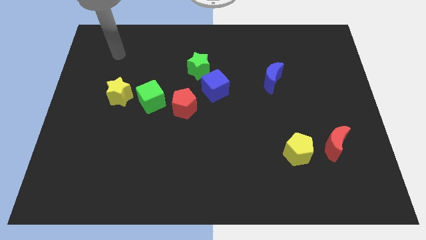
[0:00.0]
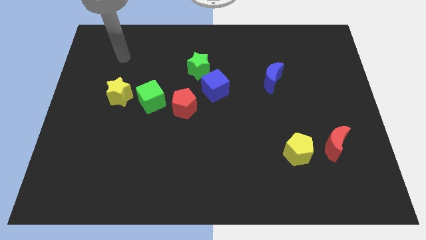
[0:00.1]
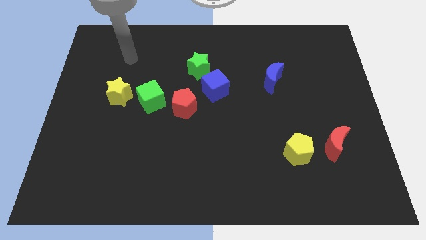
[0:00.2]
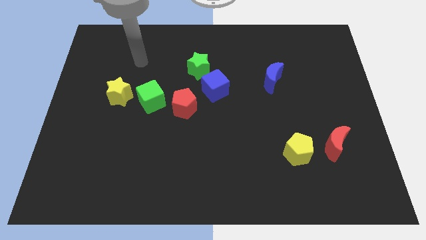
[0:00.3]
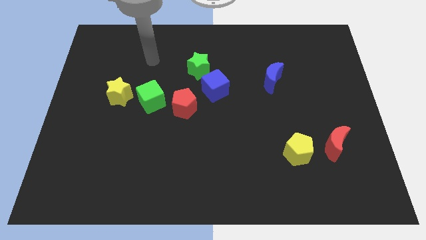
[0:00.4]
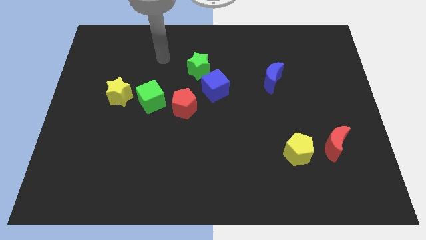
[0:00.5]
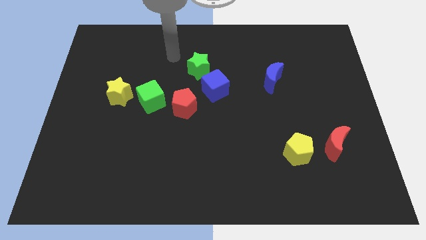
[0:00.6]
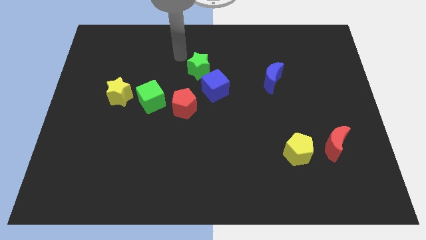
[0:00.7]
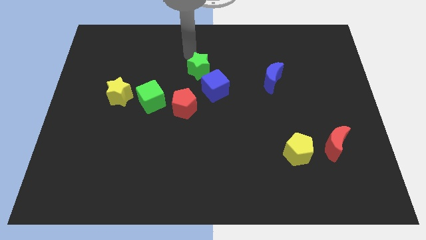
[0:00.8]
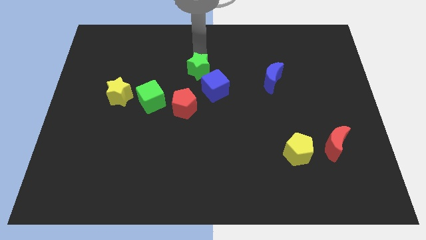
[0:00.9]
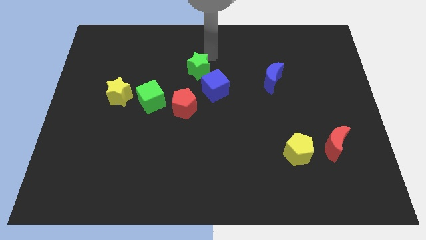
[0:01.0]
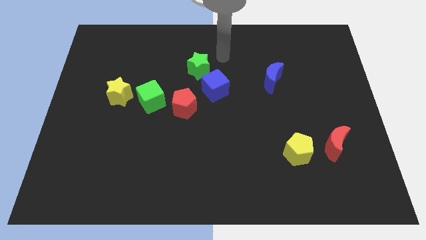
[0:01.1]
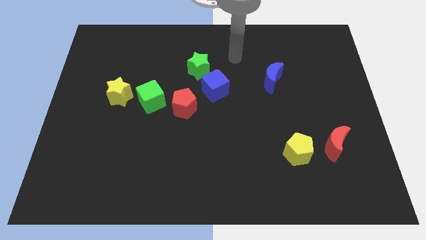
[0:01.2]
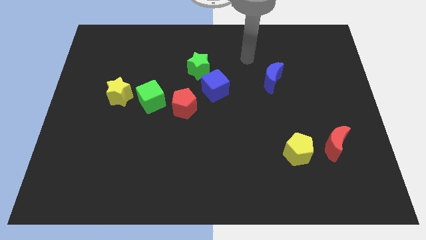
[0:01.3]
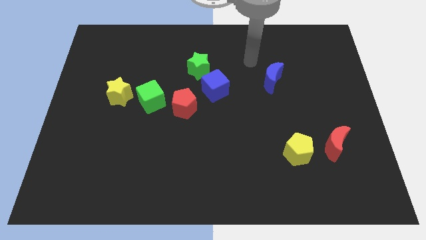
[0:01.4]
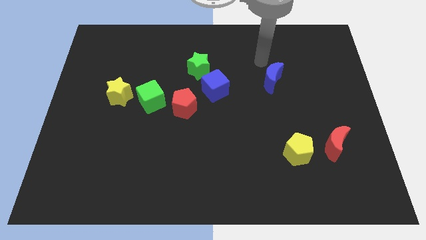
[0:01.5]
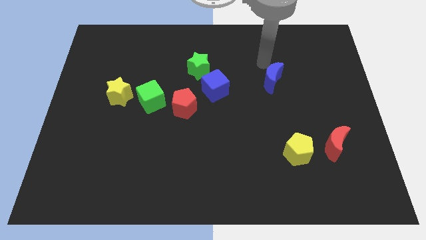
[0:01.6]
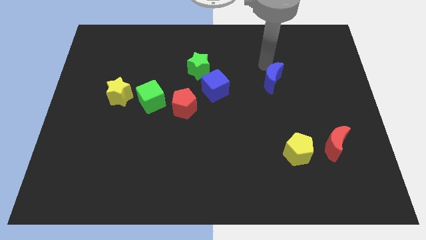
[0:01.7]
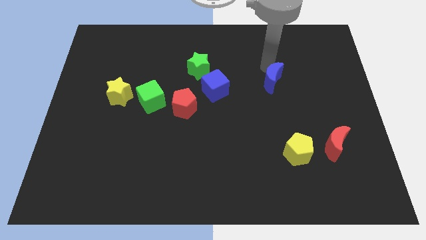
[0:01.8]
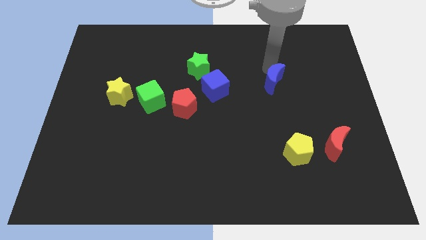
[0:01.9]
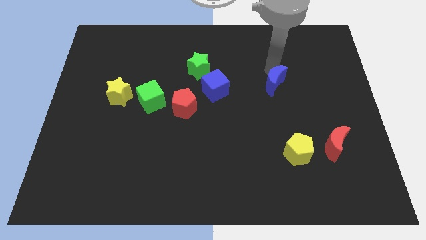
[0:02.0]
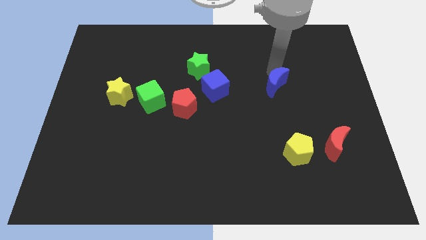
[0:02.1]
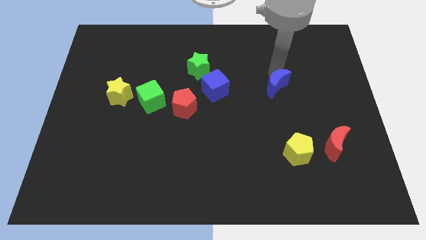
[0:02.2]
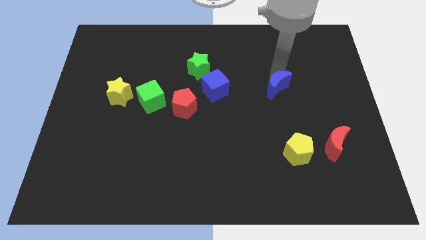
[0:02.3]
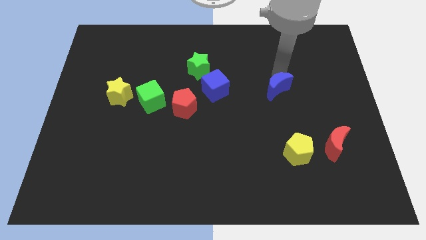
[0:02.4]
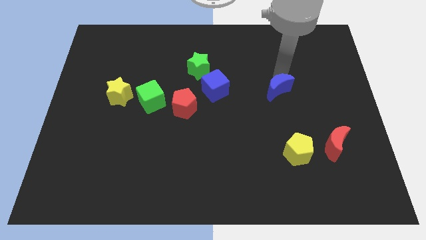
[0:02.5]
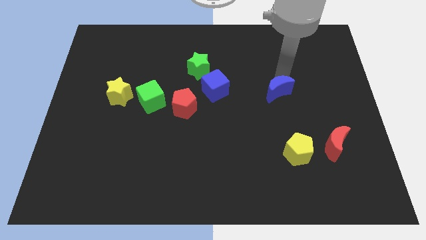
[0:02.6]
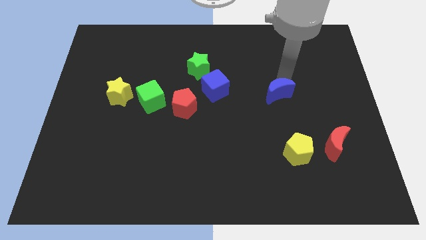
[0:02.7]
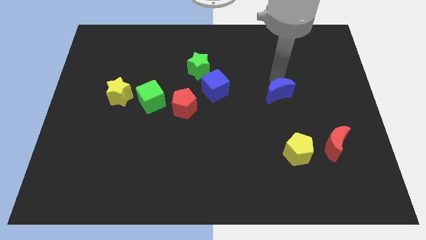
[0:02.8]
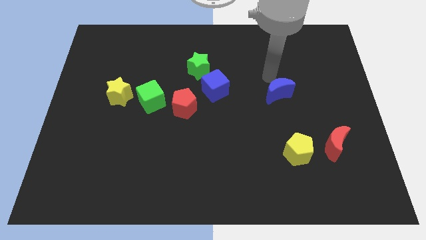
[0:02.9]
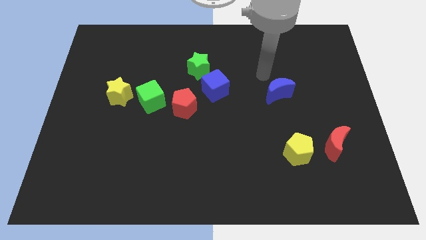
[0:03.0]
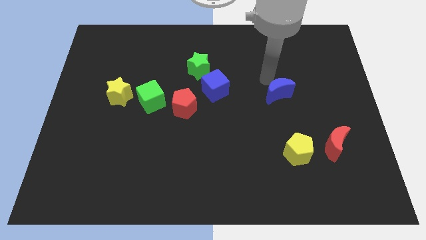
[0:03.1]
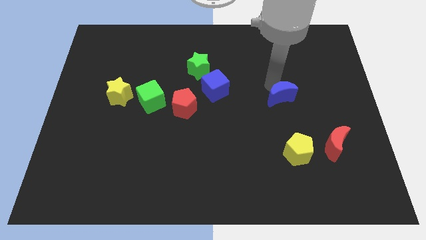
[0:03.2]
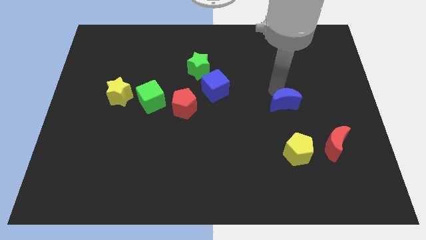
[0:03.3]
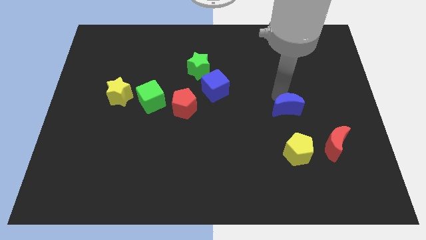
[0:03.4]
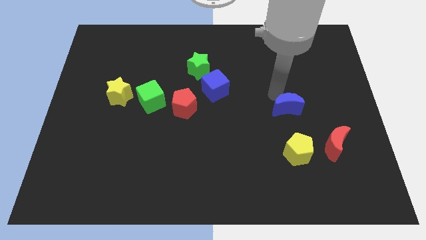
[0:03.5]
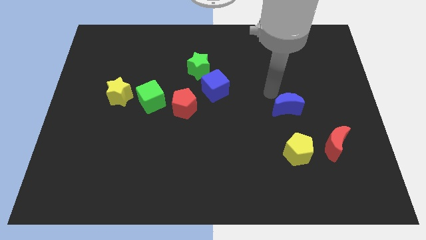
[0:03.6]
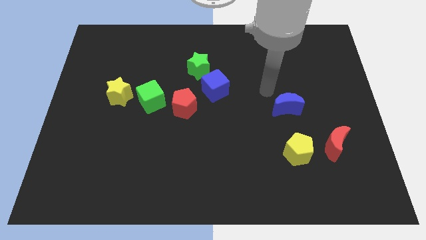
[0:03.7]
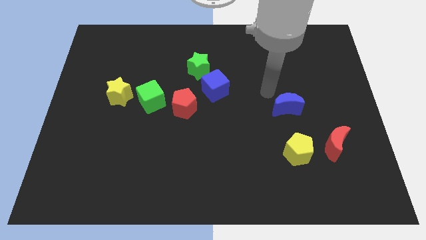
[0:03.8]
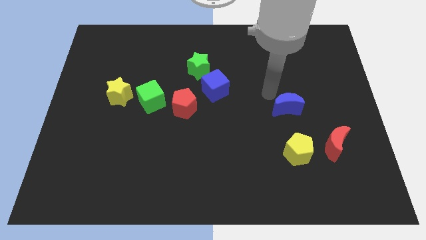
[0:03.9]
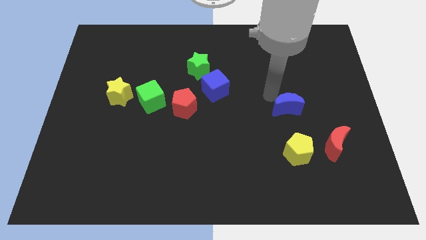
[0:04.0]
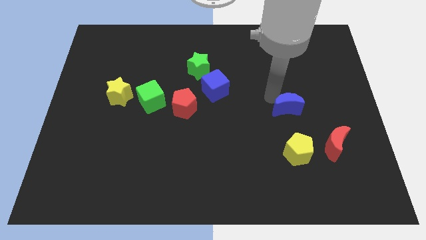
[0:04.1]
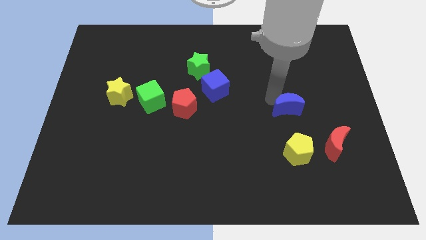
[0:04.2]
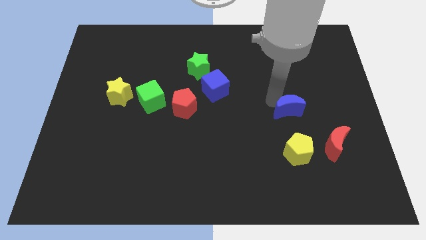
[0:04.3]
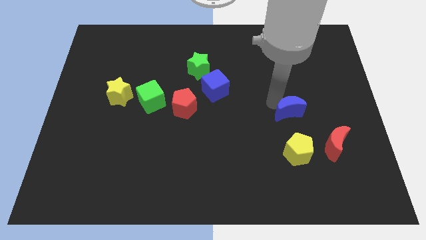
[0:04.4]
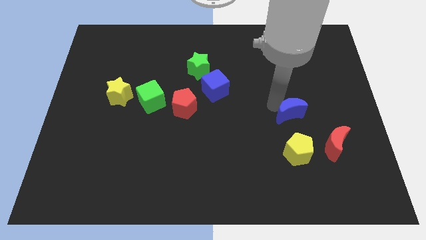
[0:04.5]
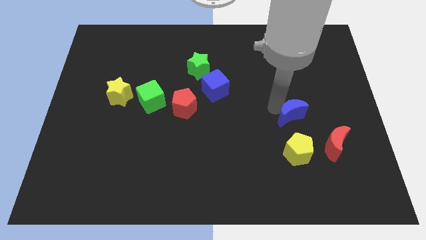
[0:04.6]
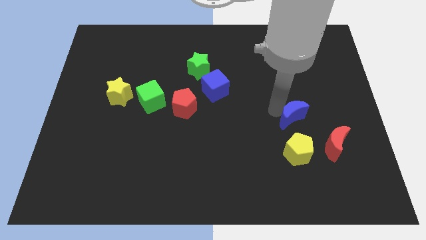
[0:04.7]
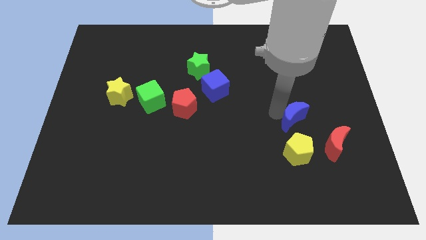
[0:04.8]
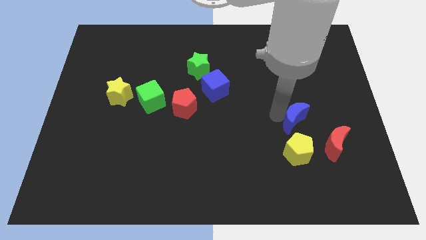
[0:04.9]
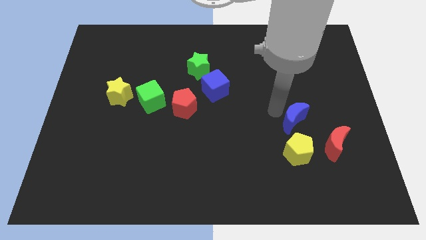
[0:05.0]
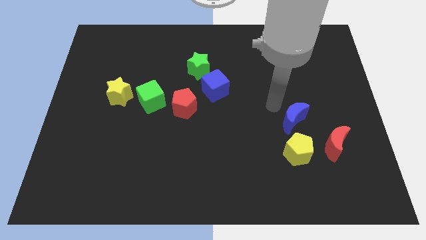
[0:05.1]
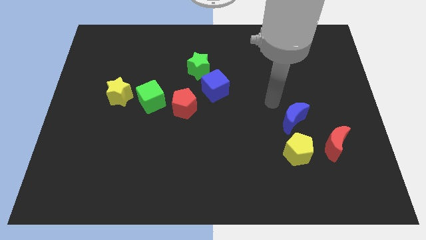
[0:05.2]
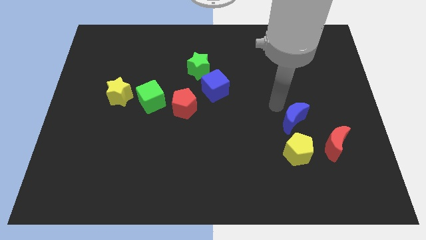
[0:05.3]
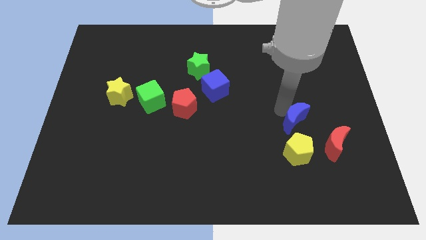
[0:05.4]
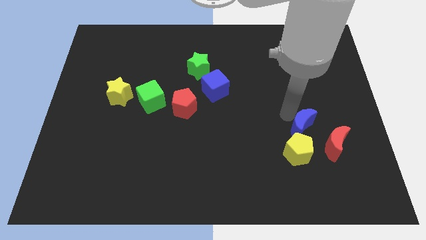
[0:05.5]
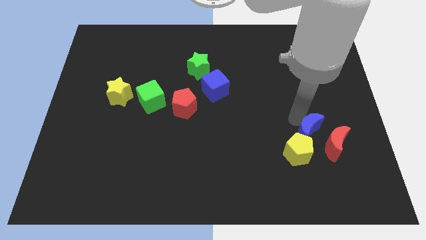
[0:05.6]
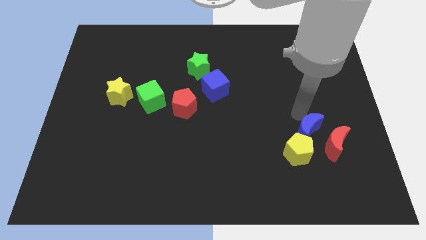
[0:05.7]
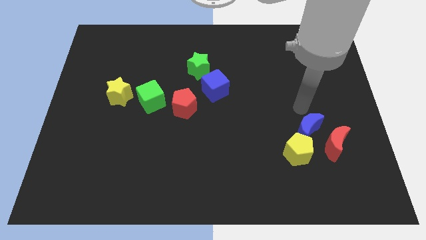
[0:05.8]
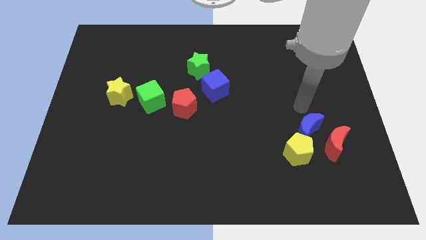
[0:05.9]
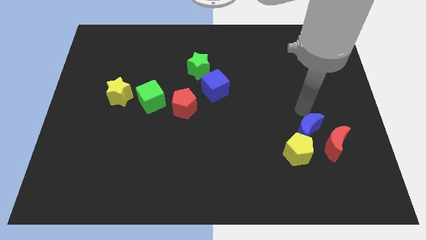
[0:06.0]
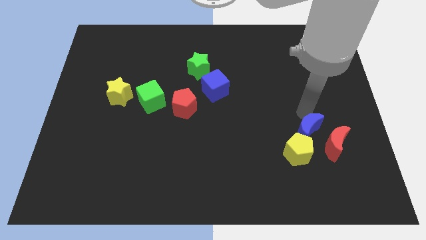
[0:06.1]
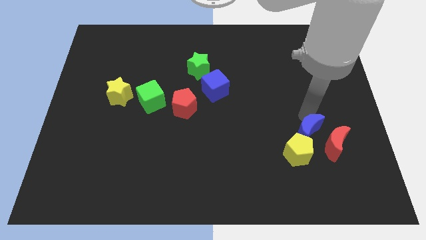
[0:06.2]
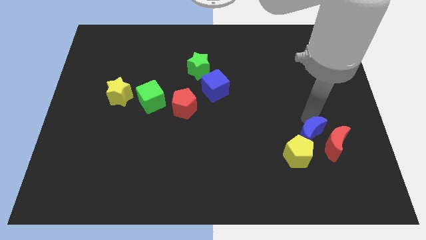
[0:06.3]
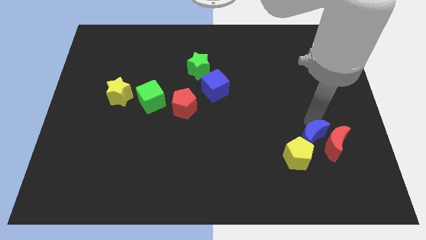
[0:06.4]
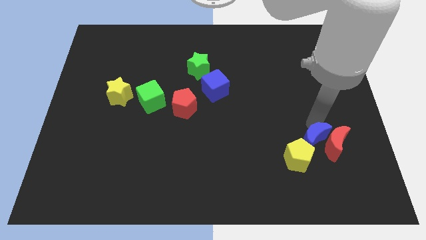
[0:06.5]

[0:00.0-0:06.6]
put the blue moon to the bottom left side of the red moon
